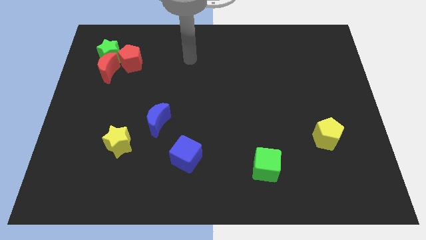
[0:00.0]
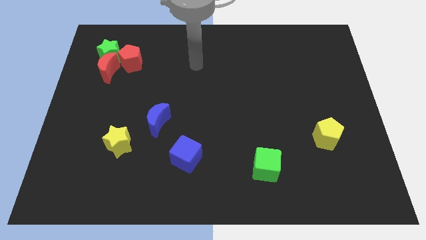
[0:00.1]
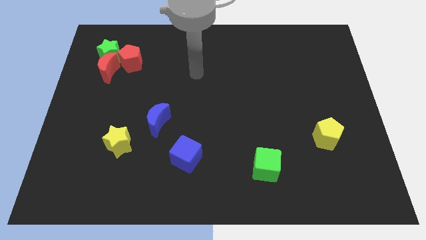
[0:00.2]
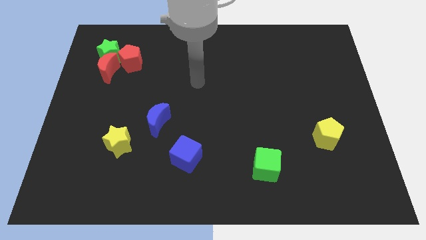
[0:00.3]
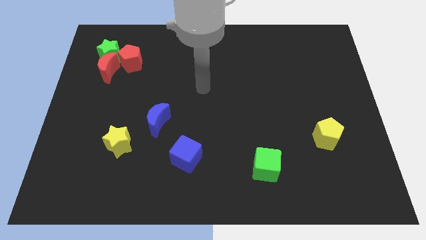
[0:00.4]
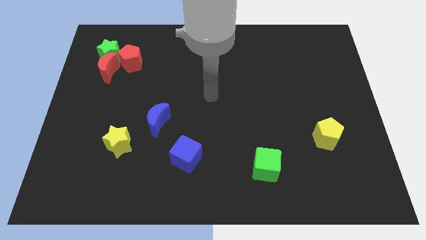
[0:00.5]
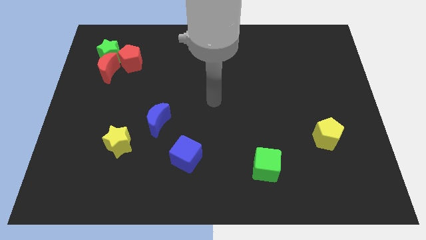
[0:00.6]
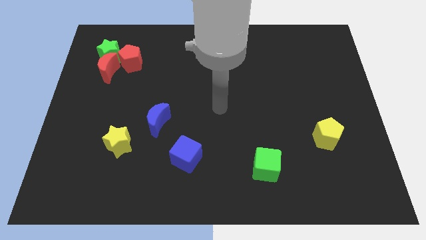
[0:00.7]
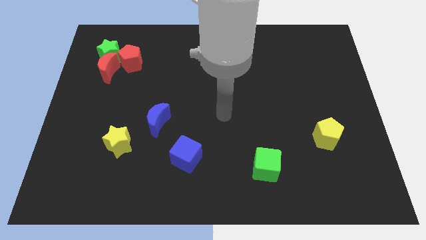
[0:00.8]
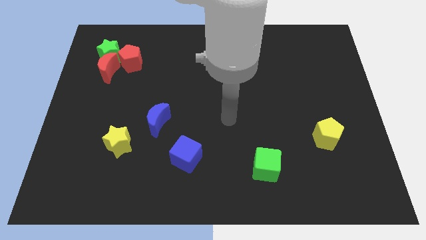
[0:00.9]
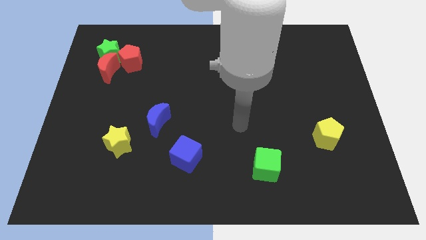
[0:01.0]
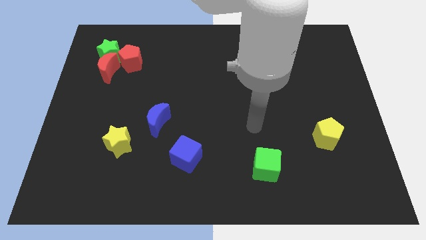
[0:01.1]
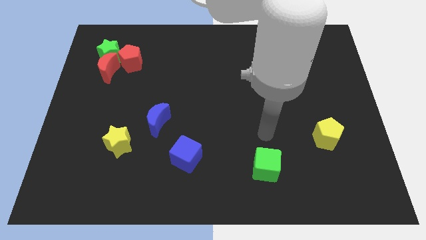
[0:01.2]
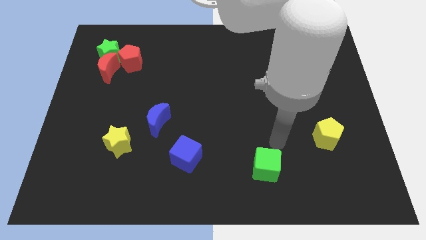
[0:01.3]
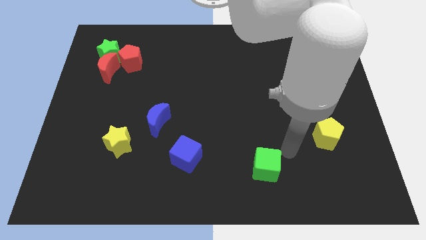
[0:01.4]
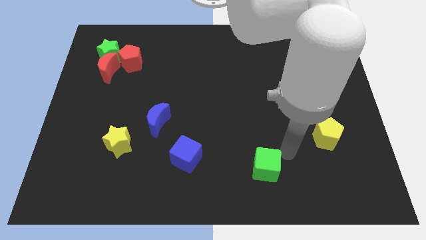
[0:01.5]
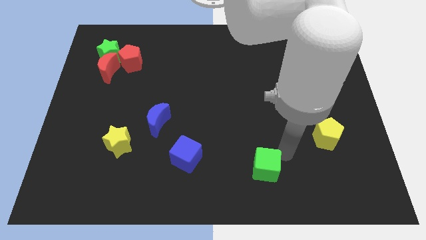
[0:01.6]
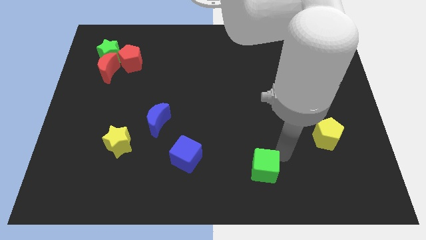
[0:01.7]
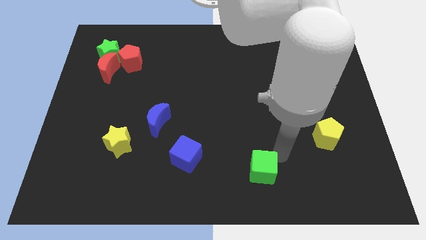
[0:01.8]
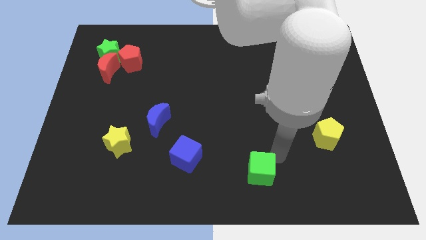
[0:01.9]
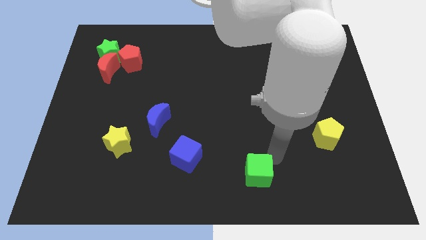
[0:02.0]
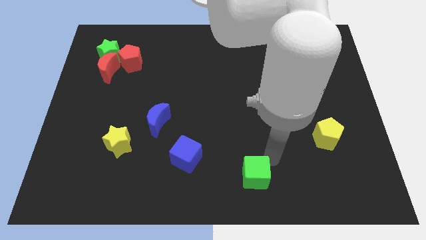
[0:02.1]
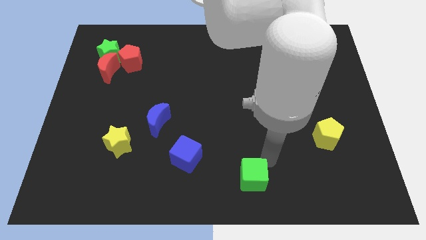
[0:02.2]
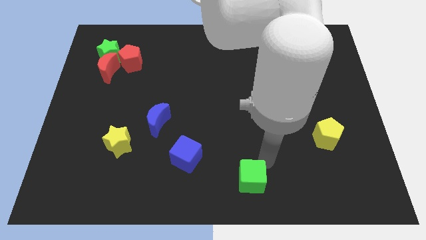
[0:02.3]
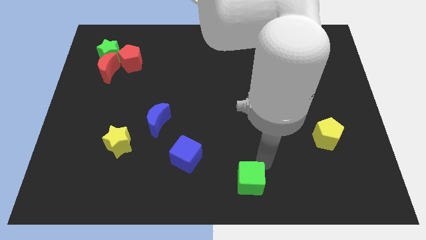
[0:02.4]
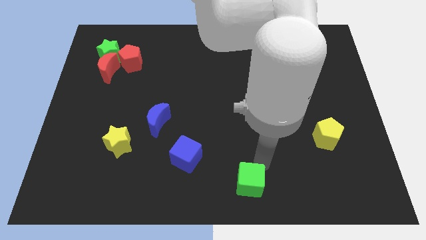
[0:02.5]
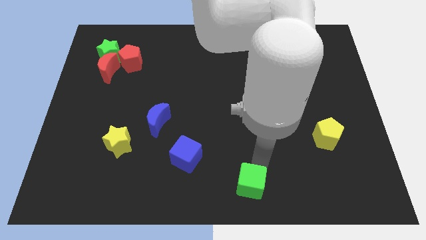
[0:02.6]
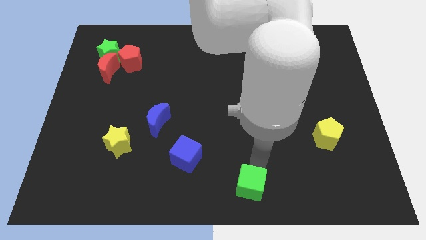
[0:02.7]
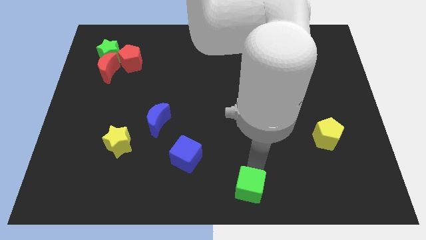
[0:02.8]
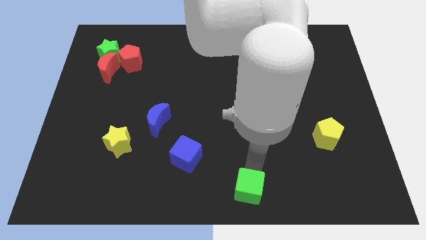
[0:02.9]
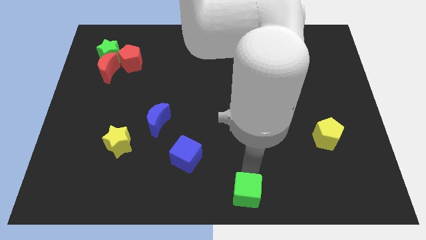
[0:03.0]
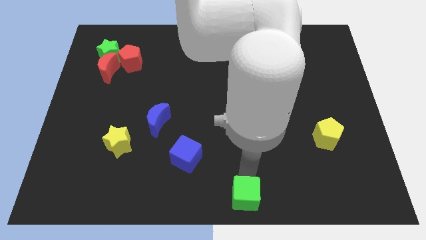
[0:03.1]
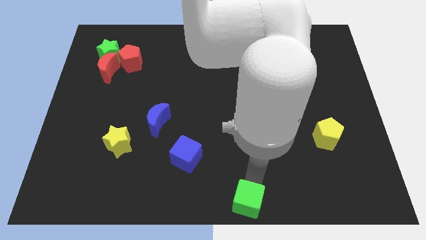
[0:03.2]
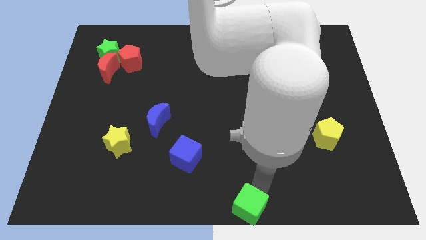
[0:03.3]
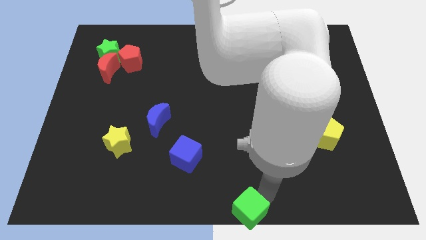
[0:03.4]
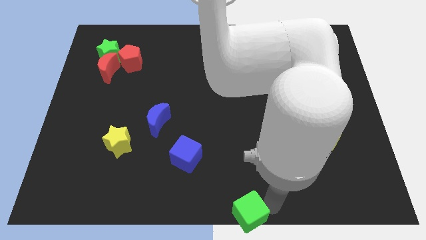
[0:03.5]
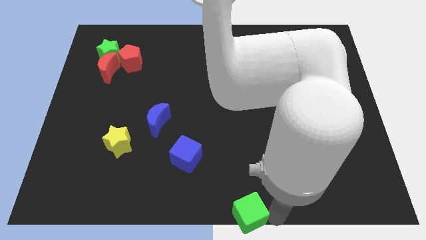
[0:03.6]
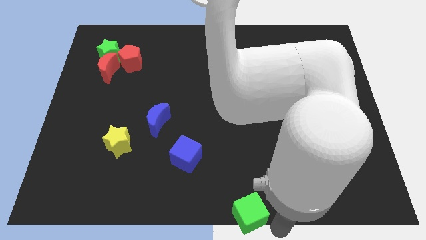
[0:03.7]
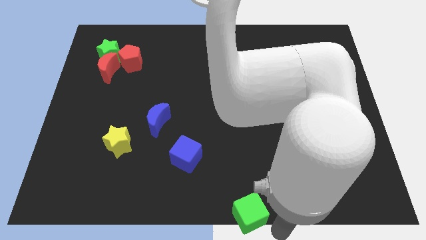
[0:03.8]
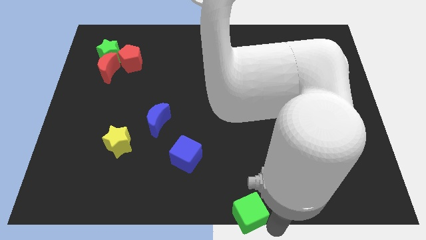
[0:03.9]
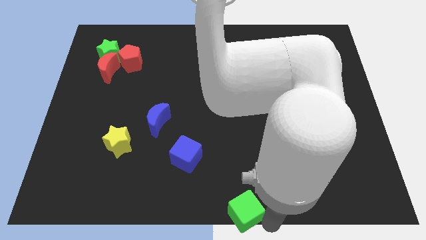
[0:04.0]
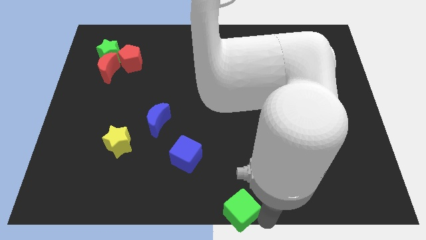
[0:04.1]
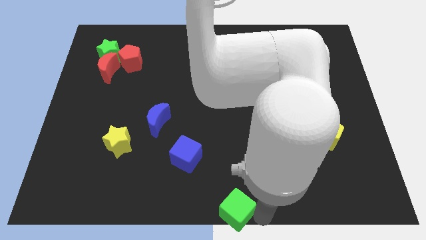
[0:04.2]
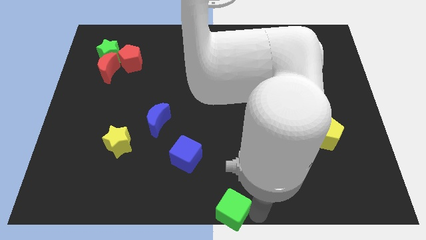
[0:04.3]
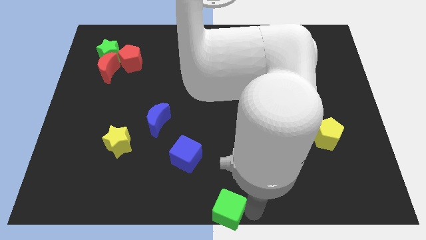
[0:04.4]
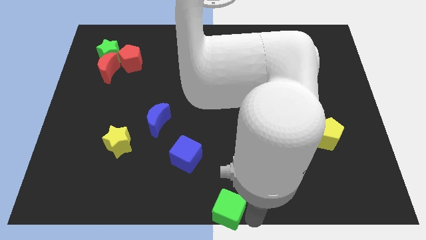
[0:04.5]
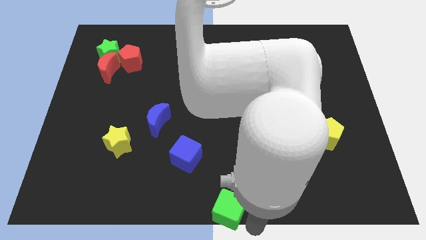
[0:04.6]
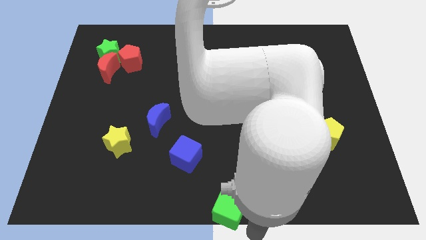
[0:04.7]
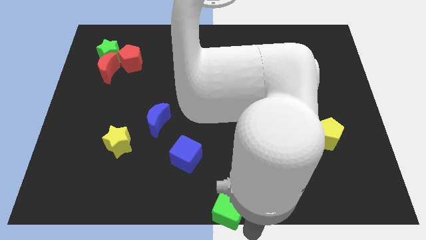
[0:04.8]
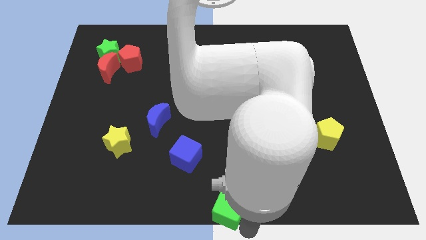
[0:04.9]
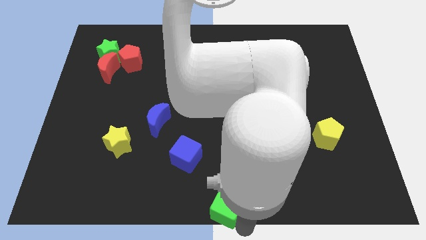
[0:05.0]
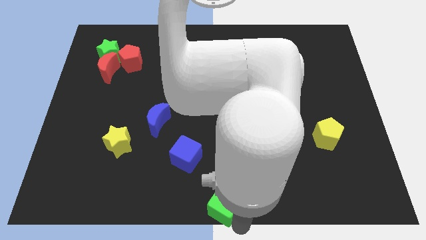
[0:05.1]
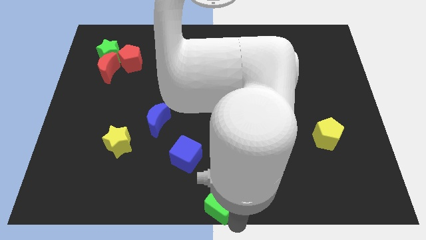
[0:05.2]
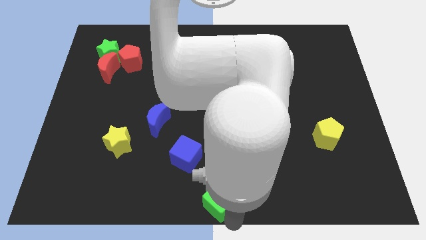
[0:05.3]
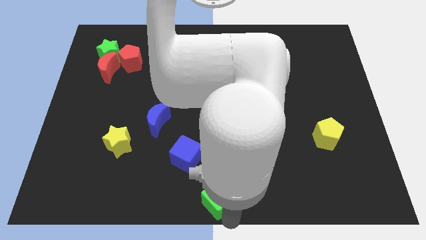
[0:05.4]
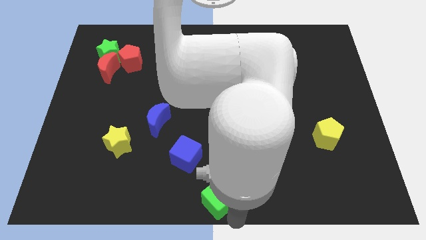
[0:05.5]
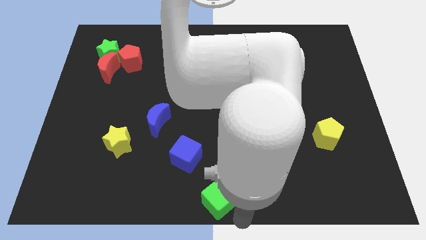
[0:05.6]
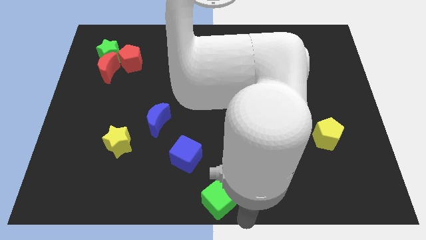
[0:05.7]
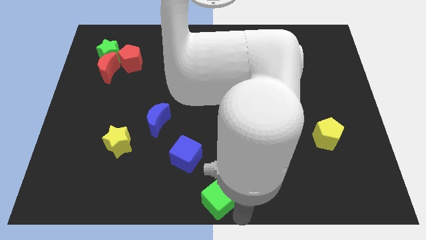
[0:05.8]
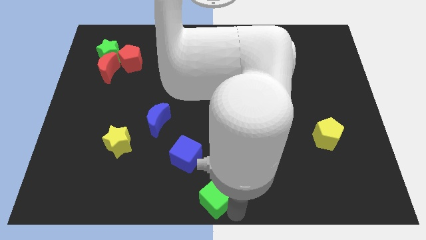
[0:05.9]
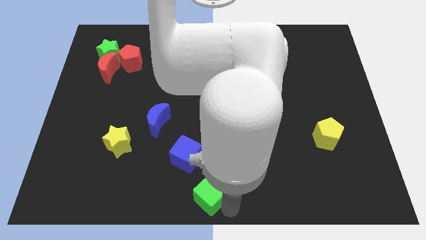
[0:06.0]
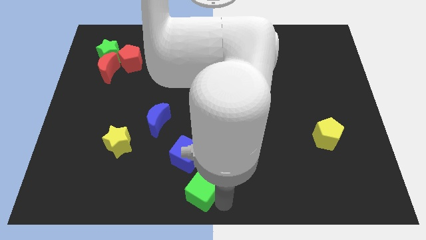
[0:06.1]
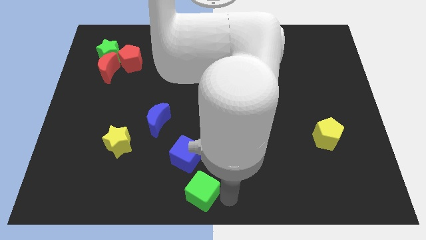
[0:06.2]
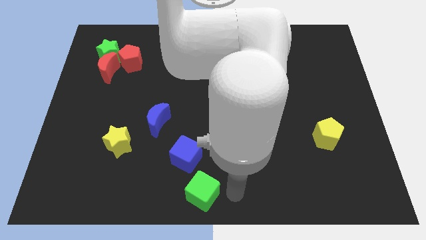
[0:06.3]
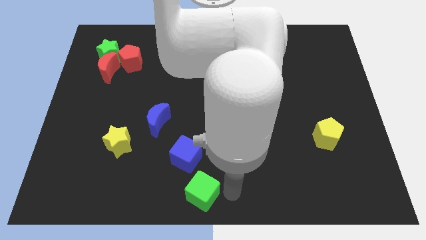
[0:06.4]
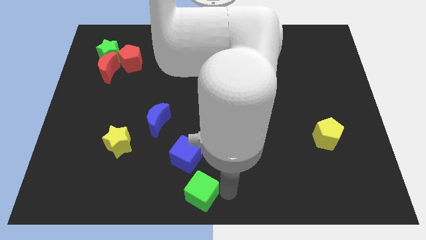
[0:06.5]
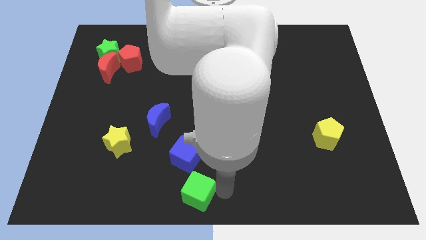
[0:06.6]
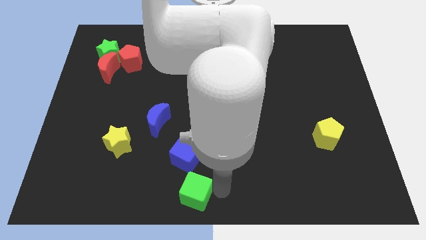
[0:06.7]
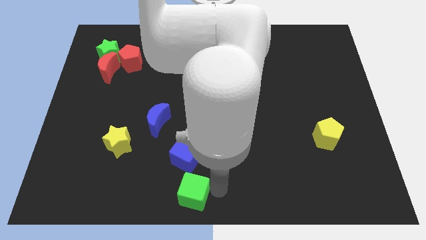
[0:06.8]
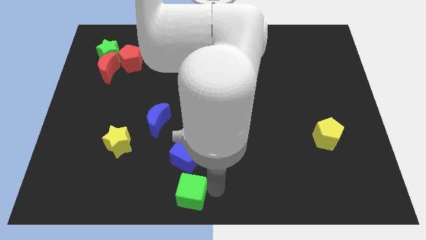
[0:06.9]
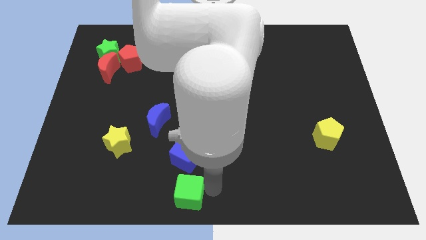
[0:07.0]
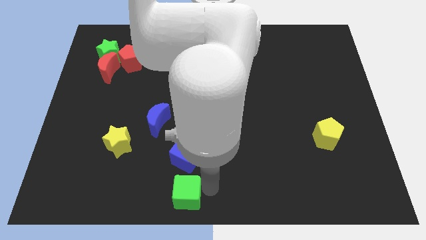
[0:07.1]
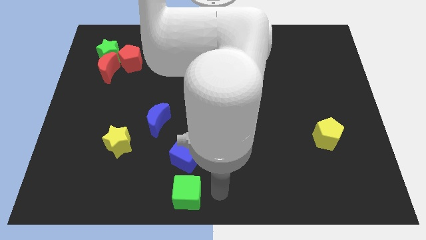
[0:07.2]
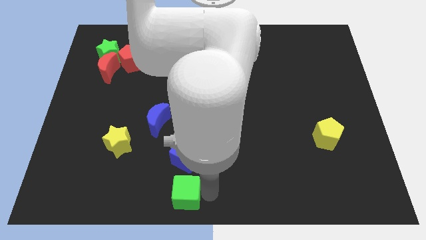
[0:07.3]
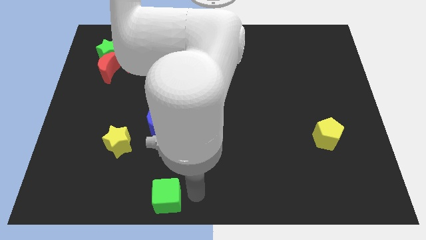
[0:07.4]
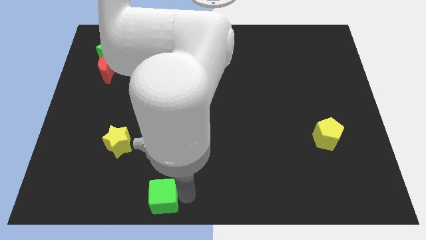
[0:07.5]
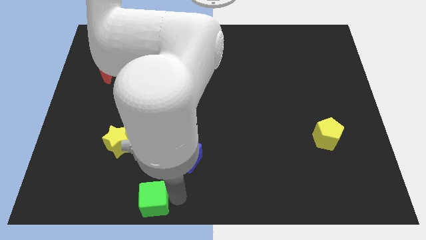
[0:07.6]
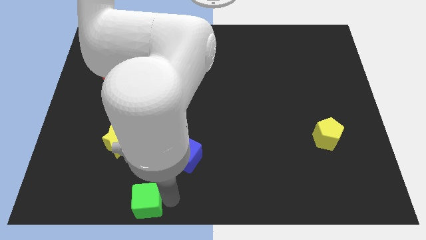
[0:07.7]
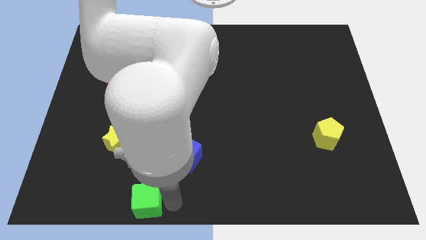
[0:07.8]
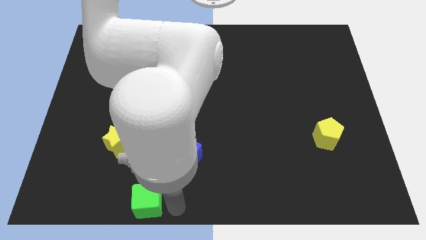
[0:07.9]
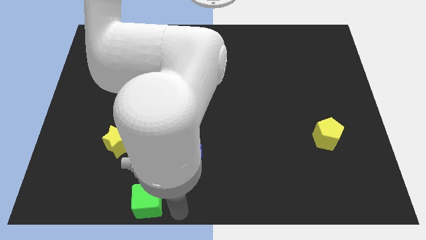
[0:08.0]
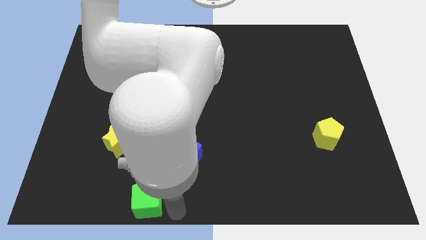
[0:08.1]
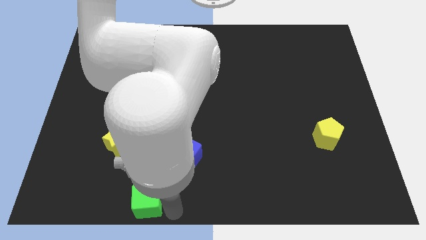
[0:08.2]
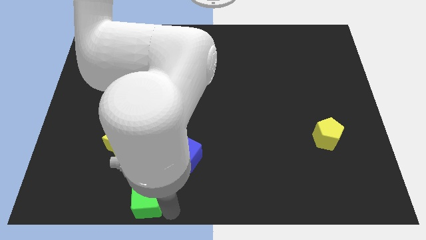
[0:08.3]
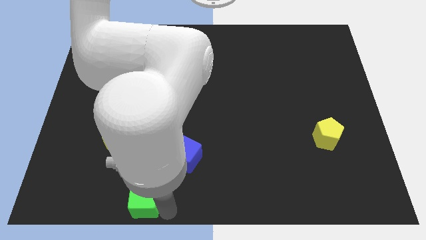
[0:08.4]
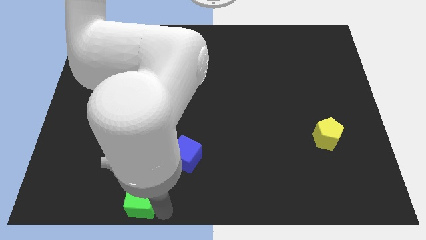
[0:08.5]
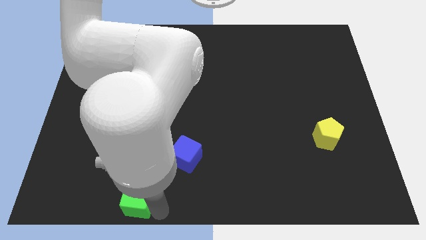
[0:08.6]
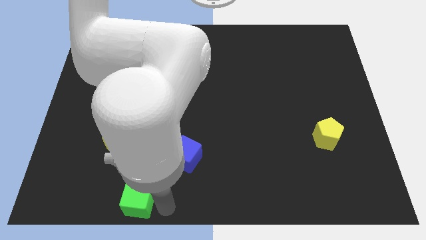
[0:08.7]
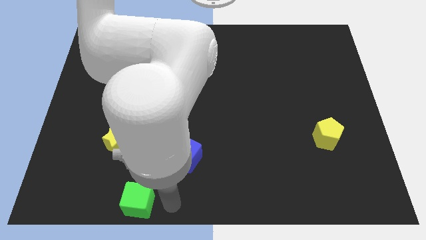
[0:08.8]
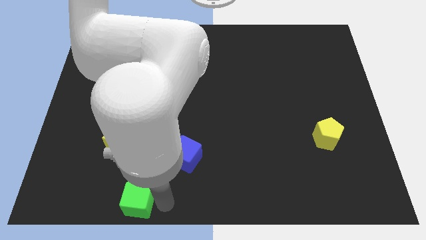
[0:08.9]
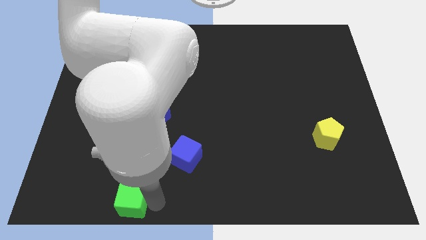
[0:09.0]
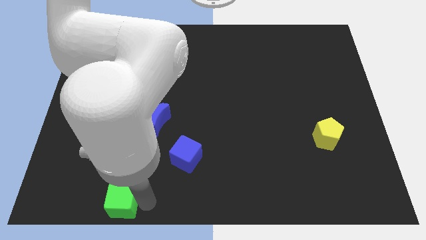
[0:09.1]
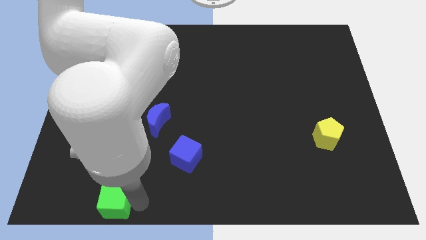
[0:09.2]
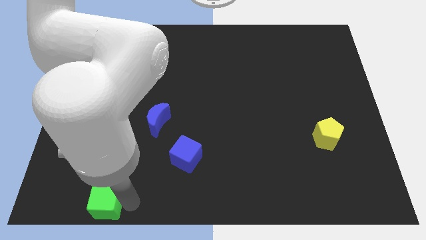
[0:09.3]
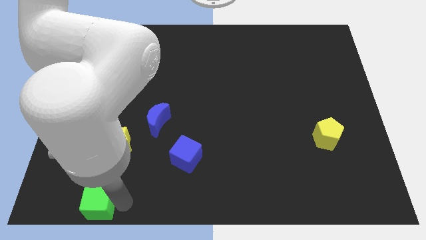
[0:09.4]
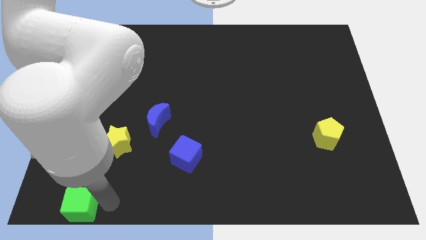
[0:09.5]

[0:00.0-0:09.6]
slide the green cube to the bottom left
